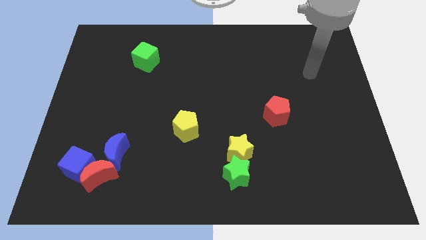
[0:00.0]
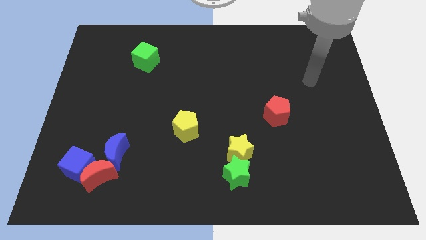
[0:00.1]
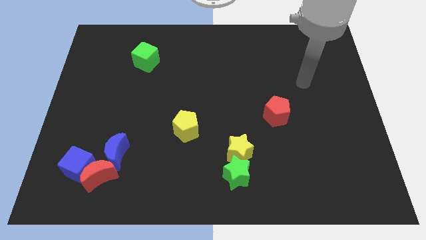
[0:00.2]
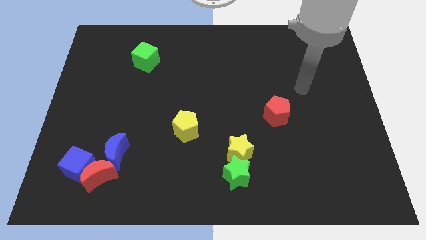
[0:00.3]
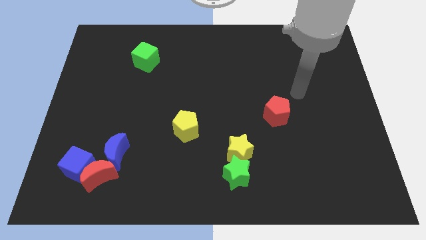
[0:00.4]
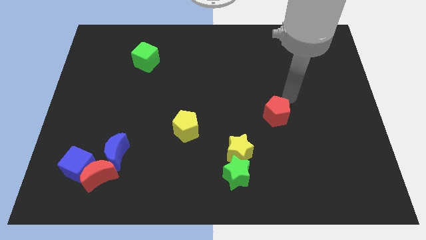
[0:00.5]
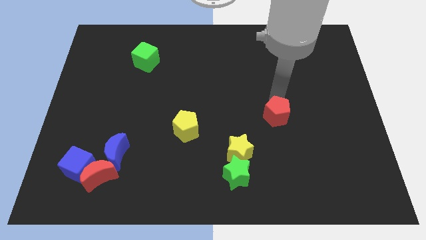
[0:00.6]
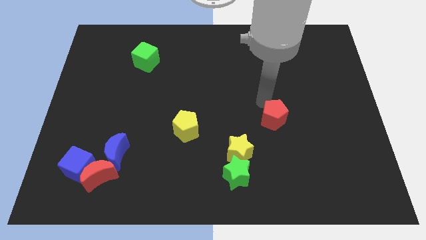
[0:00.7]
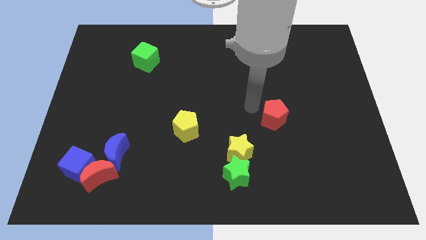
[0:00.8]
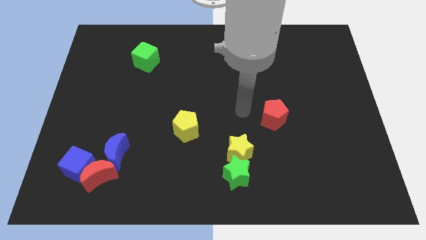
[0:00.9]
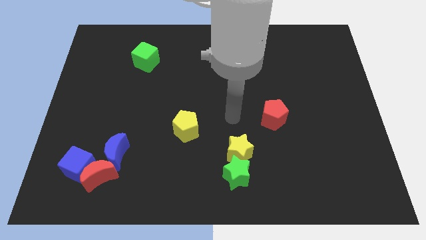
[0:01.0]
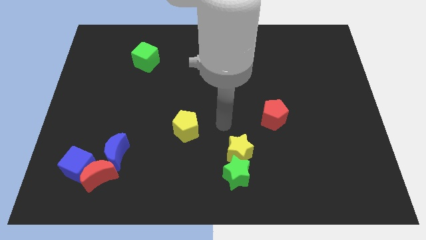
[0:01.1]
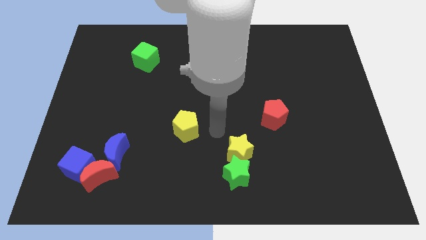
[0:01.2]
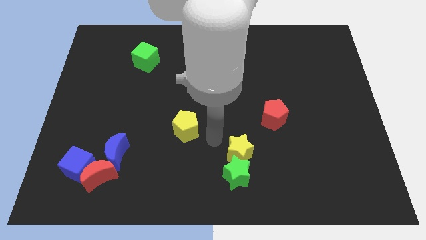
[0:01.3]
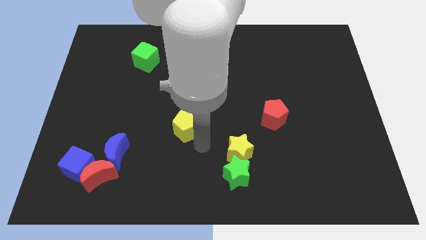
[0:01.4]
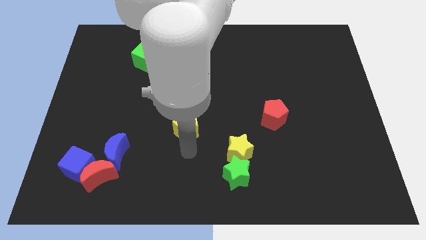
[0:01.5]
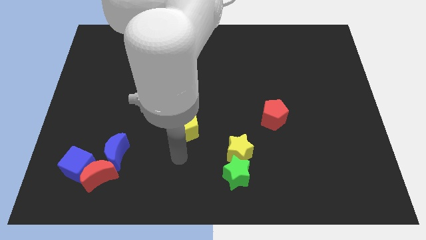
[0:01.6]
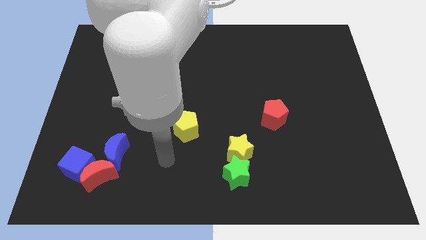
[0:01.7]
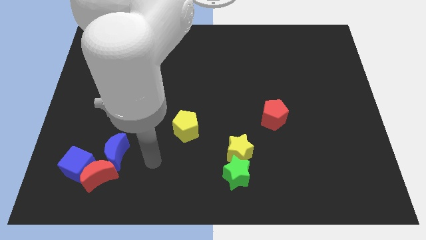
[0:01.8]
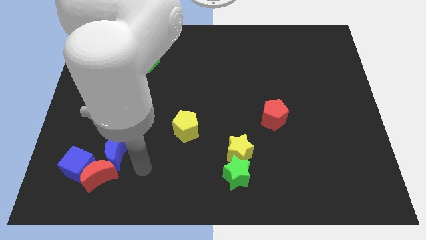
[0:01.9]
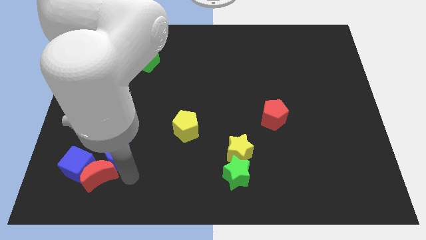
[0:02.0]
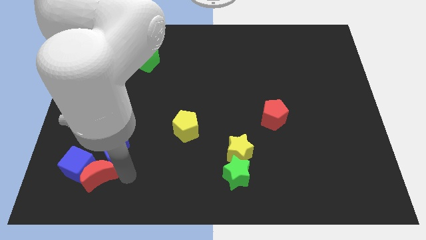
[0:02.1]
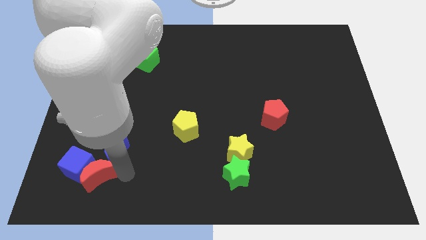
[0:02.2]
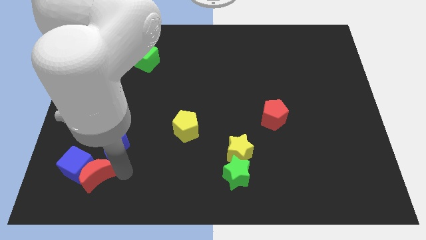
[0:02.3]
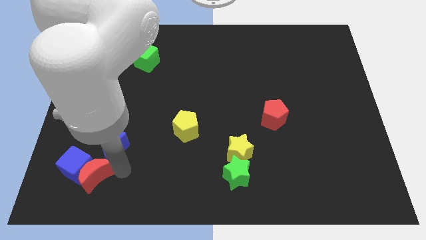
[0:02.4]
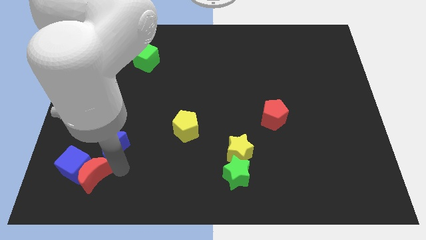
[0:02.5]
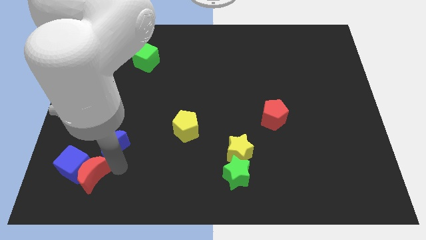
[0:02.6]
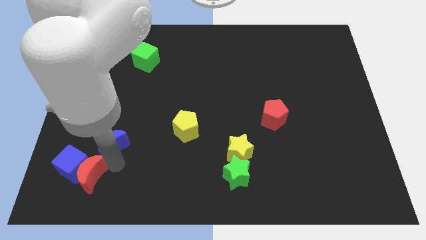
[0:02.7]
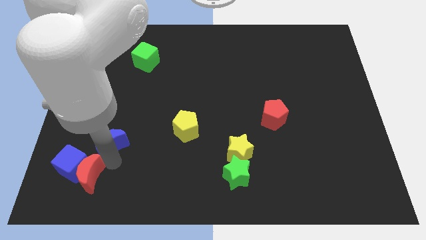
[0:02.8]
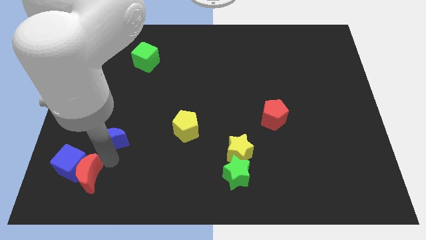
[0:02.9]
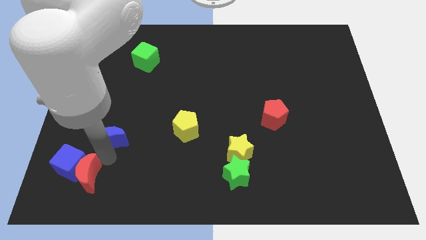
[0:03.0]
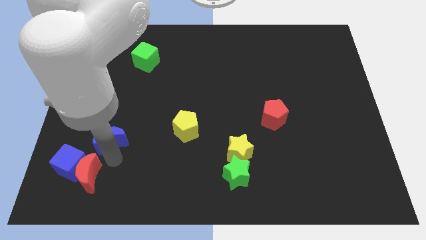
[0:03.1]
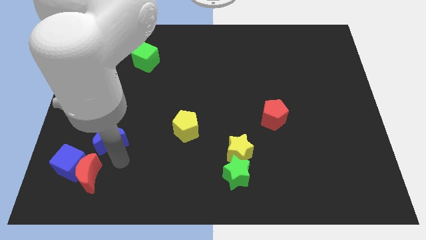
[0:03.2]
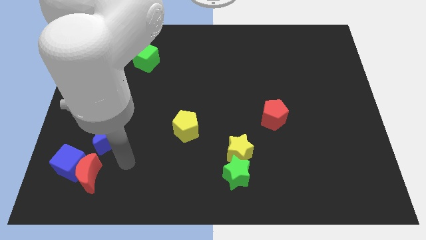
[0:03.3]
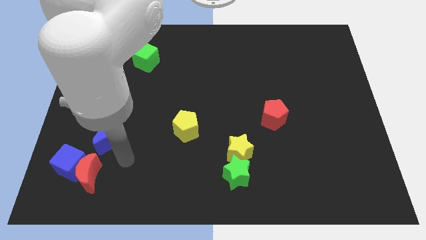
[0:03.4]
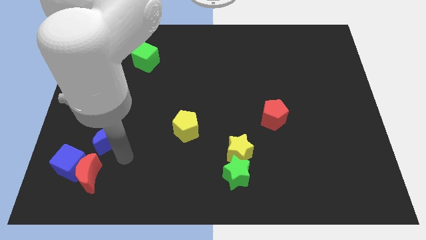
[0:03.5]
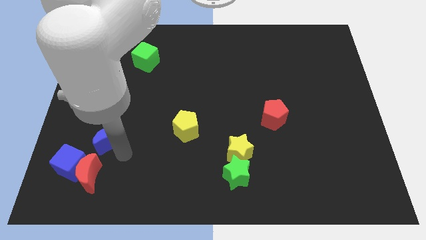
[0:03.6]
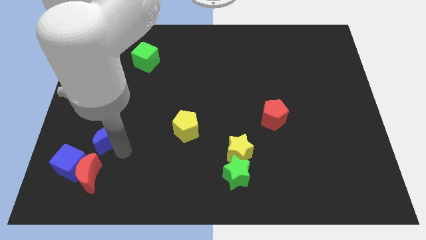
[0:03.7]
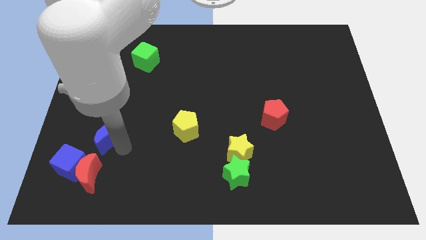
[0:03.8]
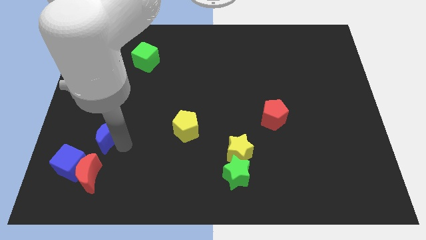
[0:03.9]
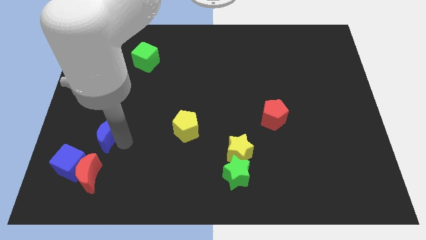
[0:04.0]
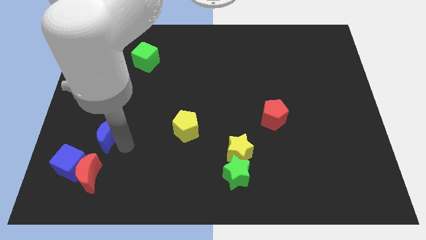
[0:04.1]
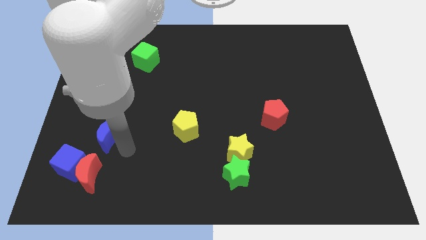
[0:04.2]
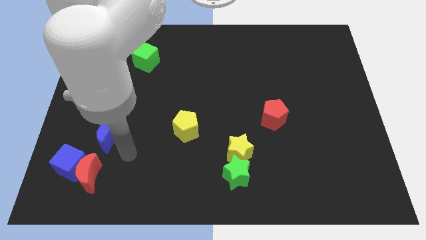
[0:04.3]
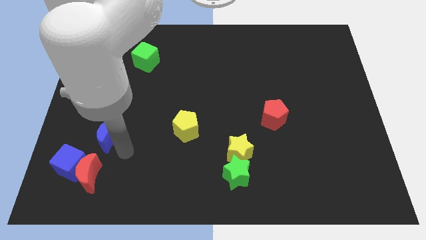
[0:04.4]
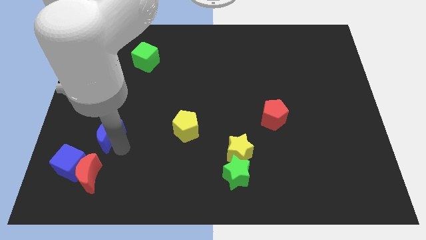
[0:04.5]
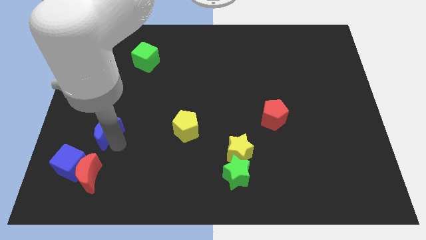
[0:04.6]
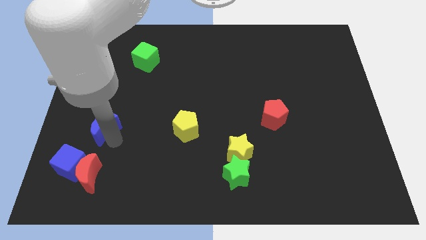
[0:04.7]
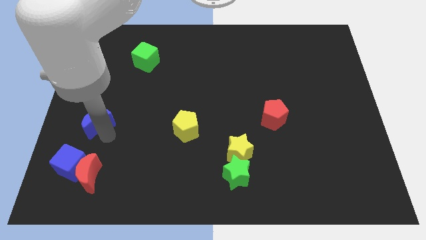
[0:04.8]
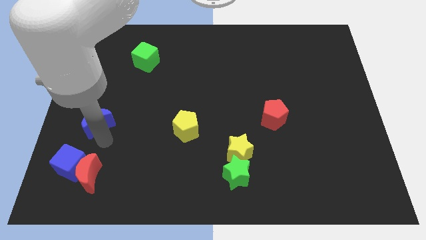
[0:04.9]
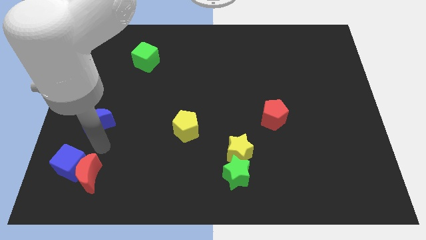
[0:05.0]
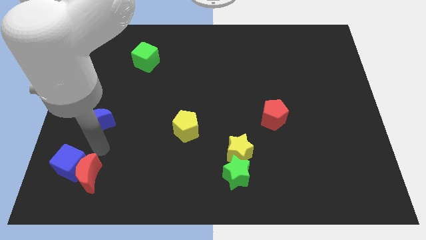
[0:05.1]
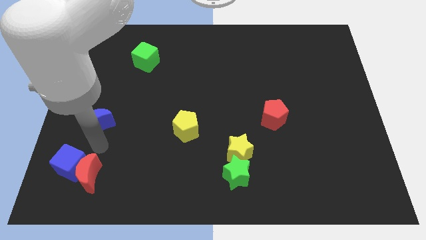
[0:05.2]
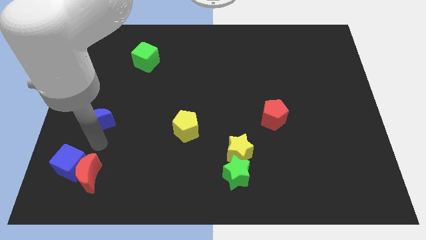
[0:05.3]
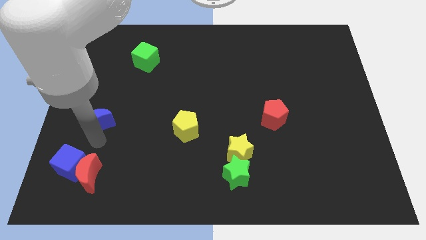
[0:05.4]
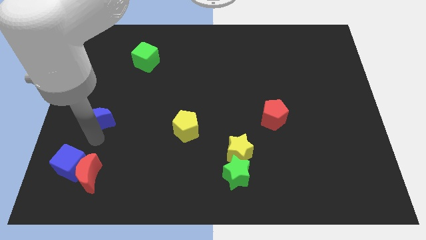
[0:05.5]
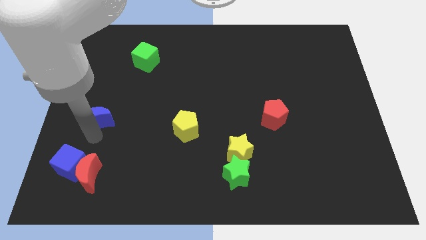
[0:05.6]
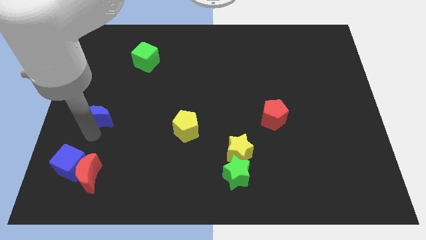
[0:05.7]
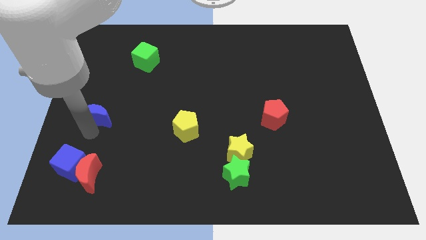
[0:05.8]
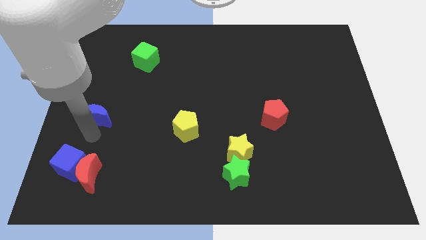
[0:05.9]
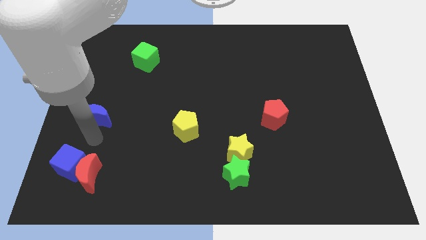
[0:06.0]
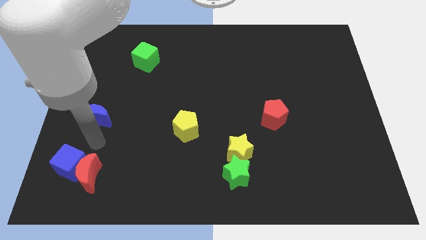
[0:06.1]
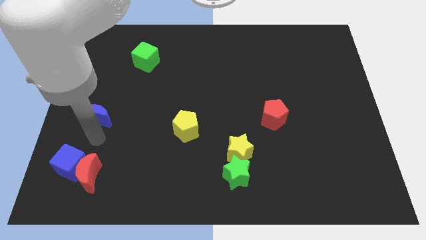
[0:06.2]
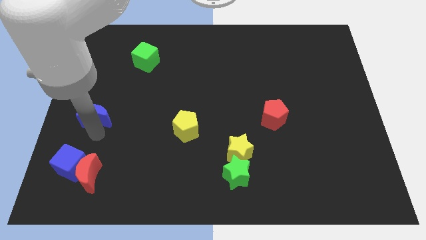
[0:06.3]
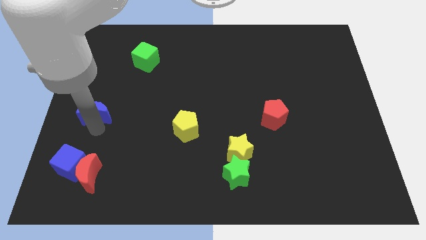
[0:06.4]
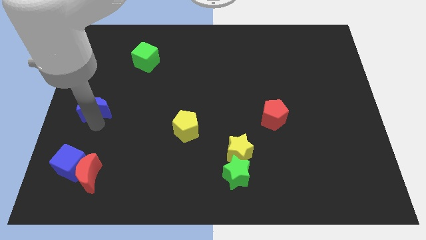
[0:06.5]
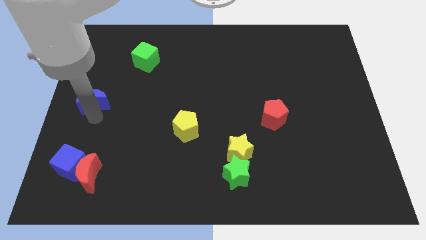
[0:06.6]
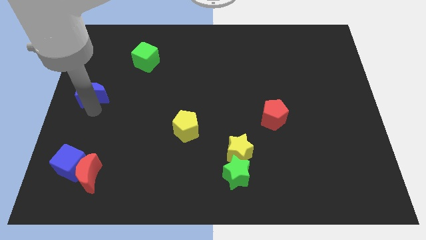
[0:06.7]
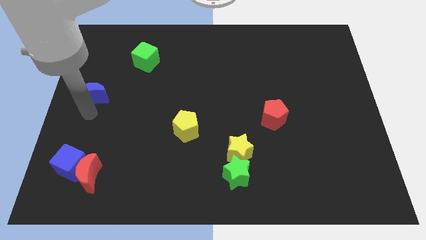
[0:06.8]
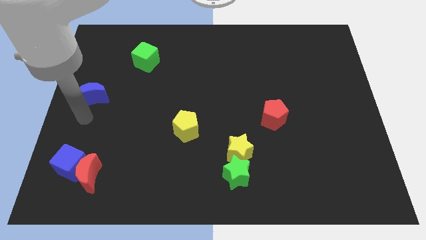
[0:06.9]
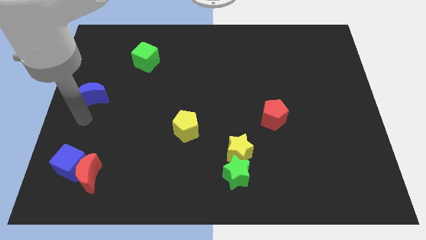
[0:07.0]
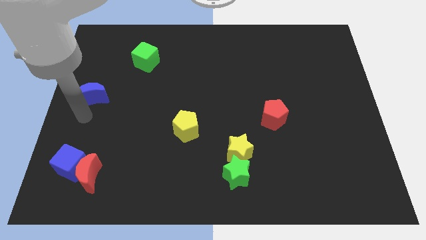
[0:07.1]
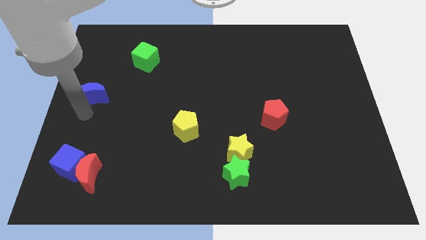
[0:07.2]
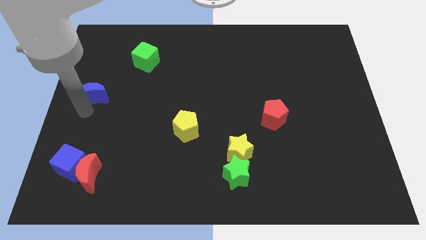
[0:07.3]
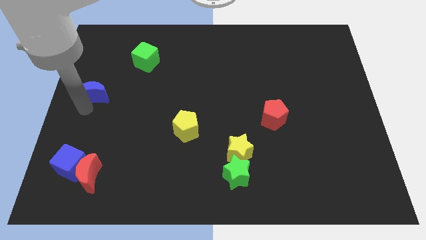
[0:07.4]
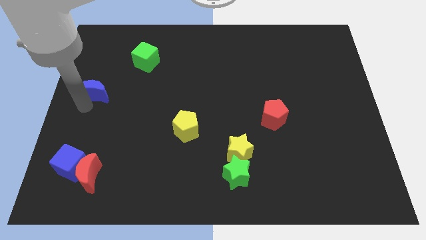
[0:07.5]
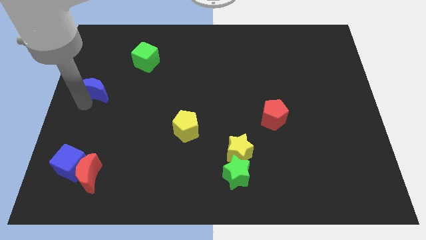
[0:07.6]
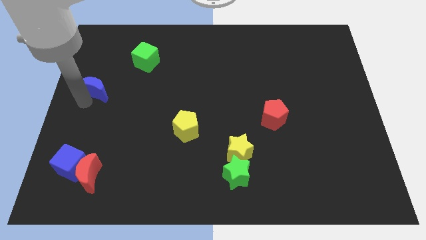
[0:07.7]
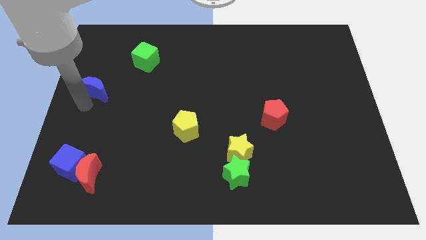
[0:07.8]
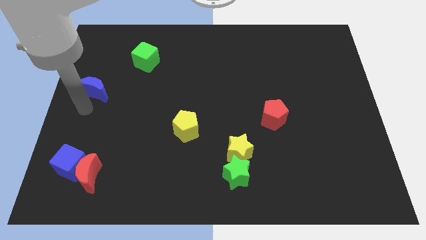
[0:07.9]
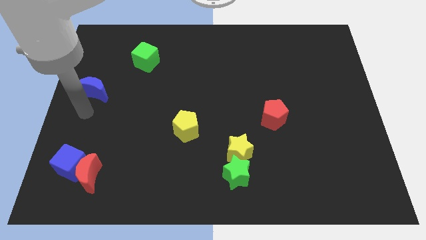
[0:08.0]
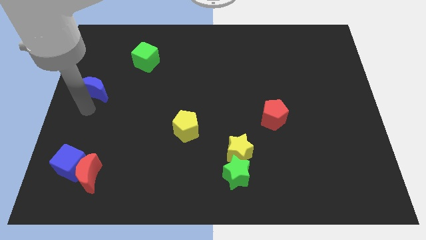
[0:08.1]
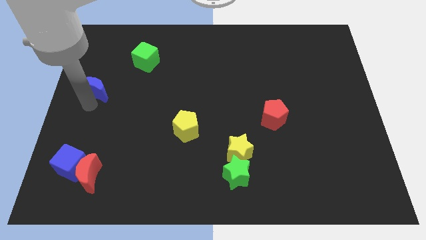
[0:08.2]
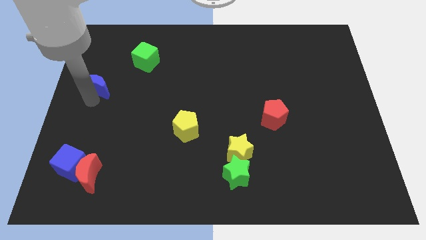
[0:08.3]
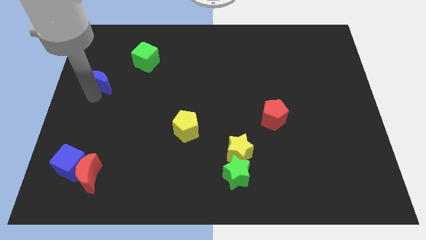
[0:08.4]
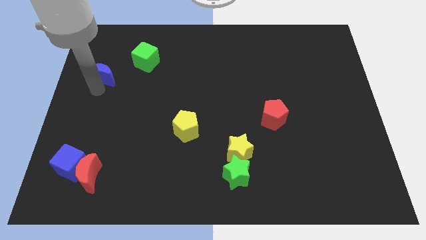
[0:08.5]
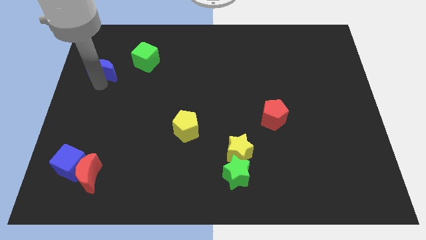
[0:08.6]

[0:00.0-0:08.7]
move the blue moon just left of the green cube
